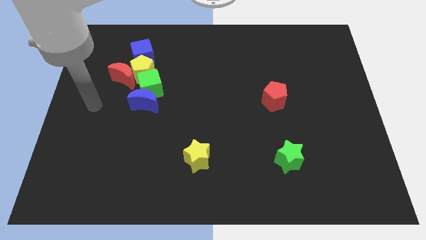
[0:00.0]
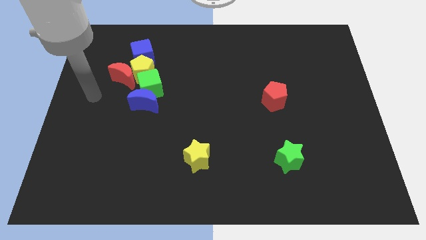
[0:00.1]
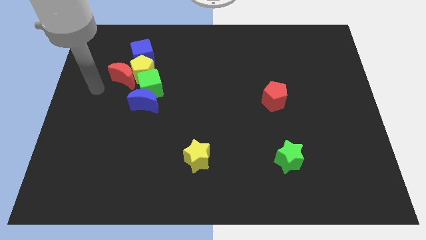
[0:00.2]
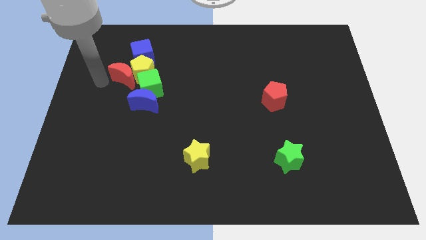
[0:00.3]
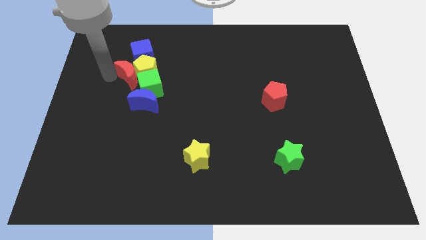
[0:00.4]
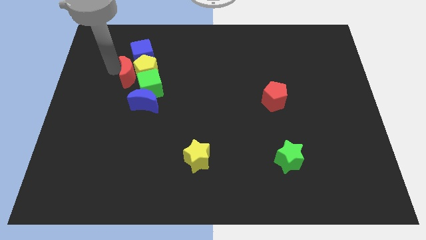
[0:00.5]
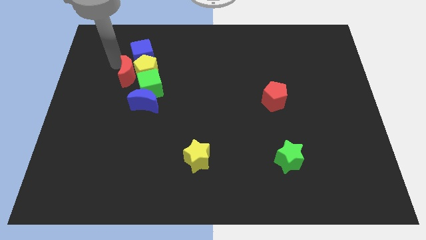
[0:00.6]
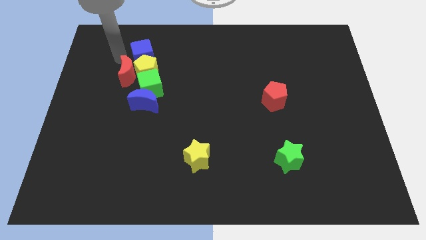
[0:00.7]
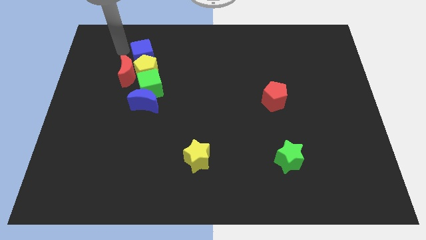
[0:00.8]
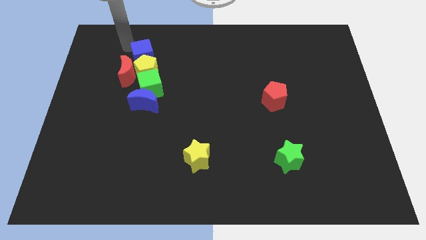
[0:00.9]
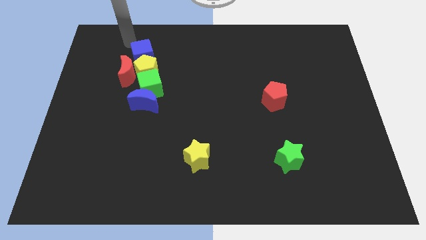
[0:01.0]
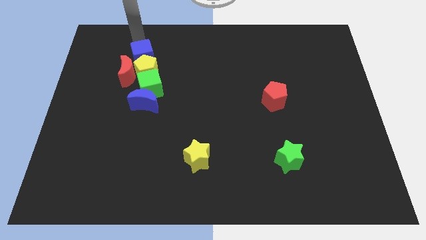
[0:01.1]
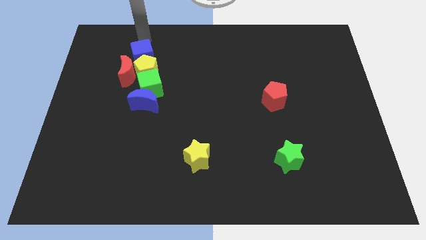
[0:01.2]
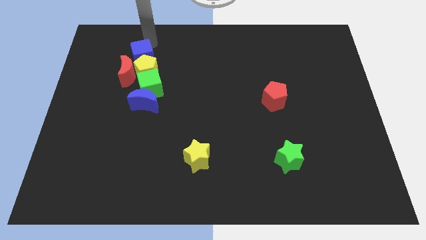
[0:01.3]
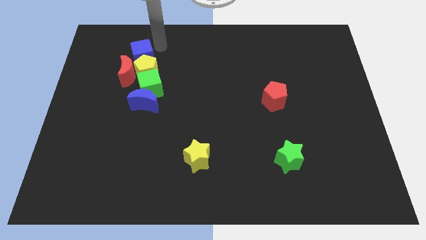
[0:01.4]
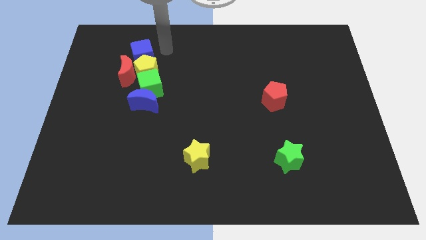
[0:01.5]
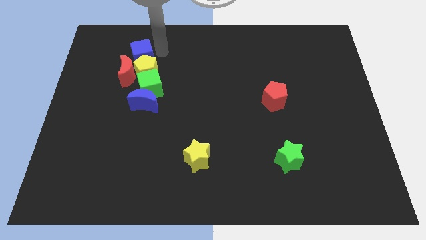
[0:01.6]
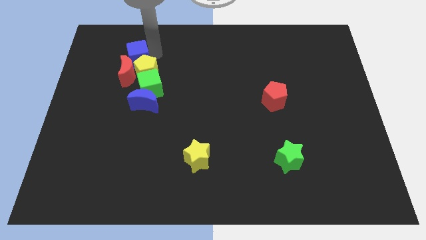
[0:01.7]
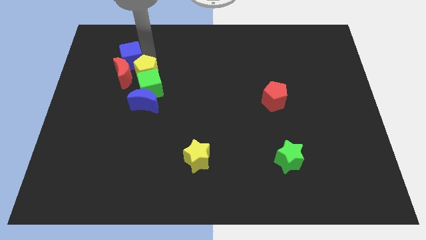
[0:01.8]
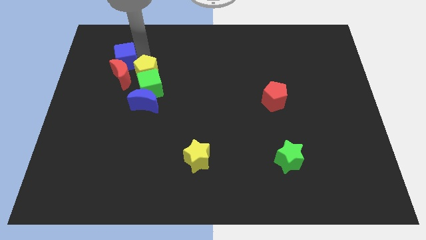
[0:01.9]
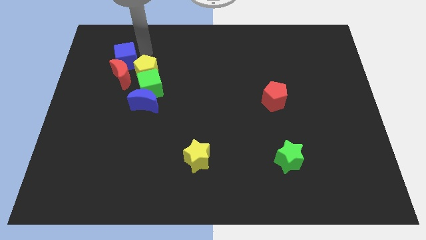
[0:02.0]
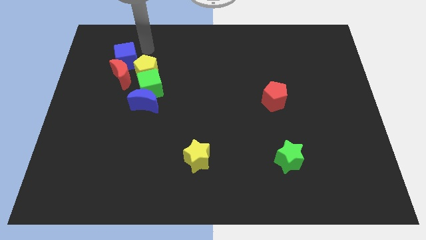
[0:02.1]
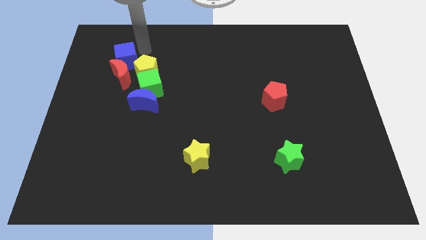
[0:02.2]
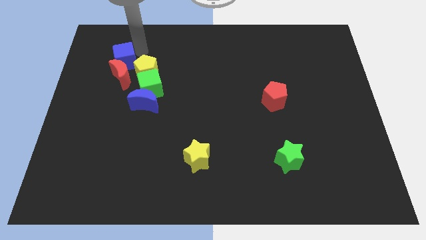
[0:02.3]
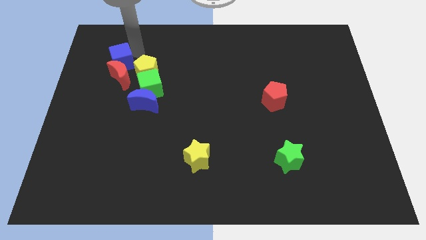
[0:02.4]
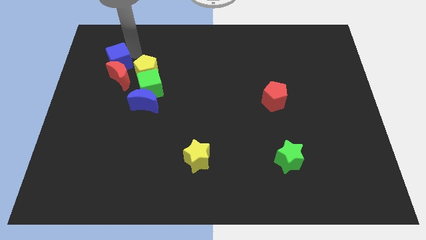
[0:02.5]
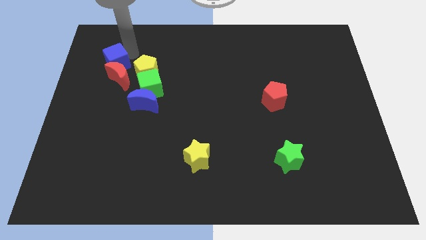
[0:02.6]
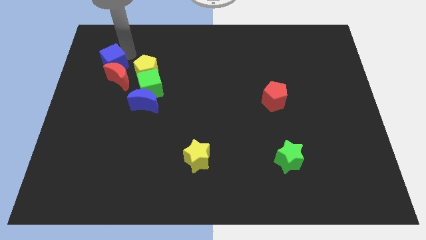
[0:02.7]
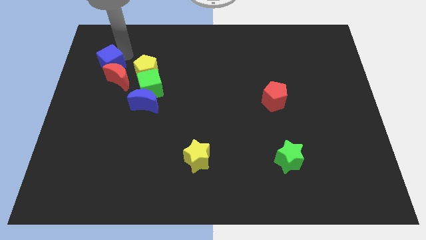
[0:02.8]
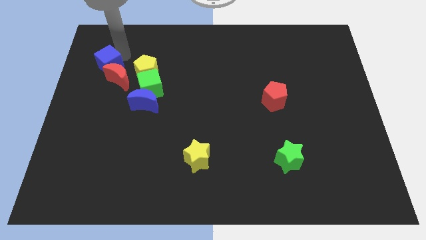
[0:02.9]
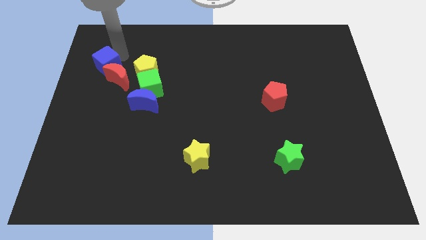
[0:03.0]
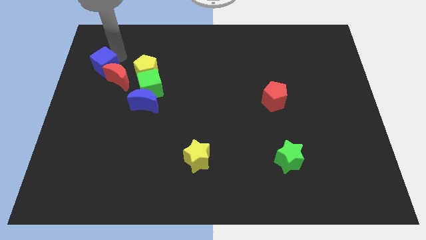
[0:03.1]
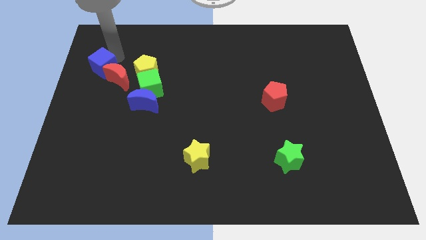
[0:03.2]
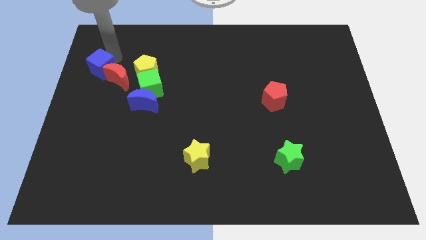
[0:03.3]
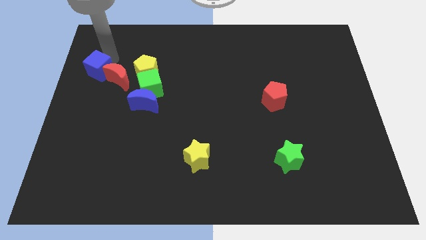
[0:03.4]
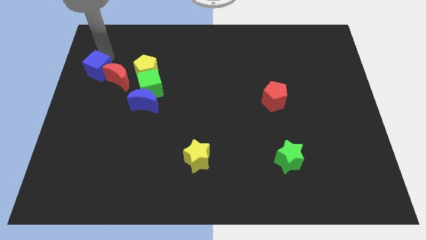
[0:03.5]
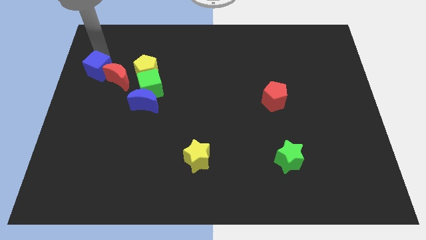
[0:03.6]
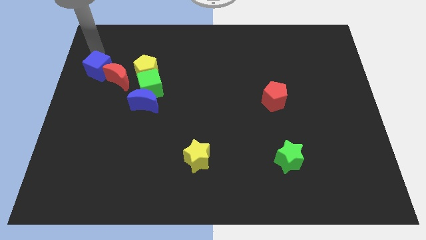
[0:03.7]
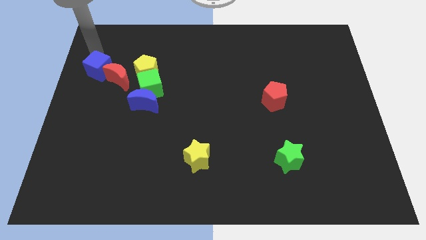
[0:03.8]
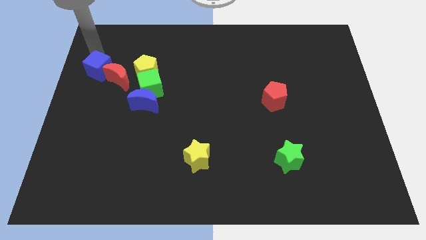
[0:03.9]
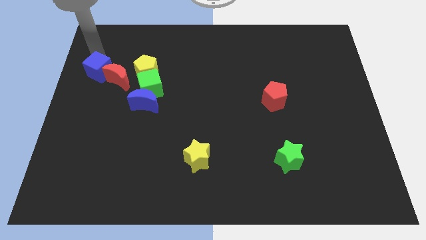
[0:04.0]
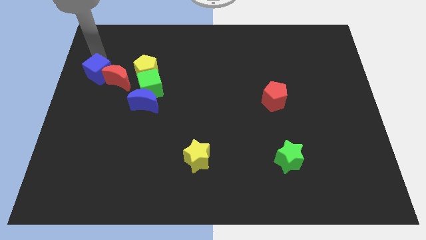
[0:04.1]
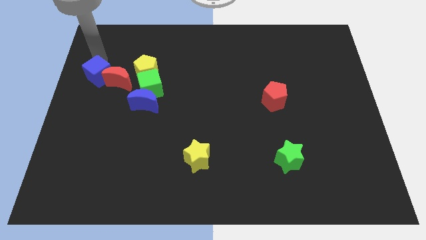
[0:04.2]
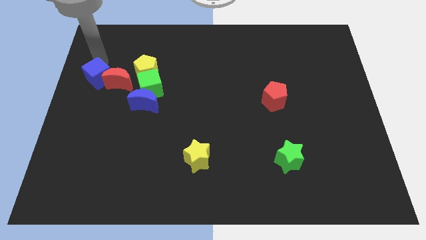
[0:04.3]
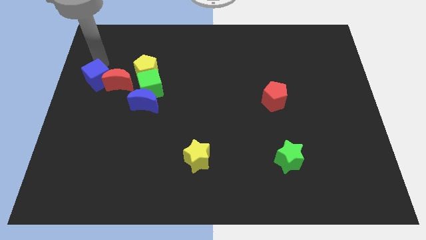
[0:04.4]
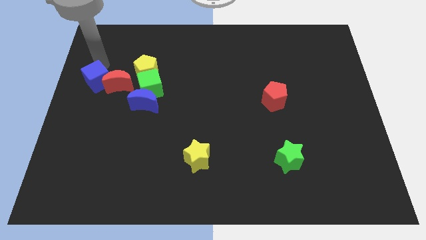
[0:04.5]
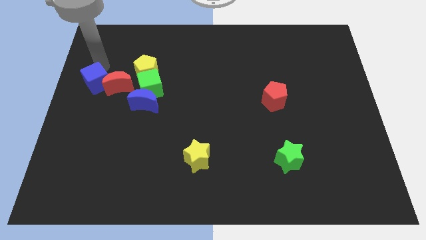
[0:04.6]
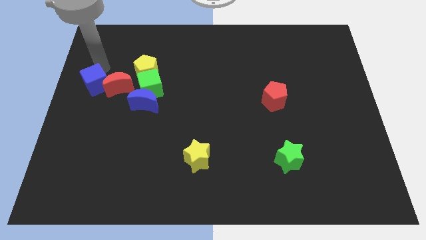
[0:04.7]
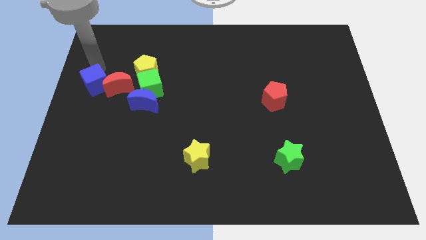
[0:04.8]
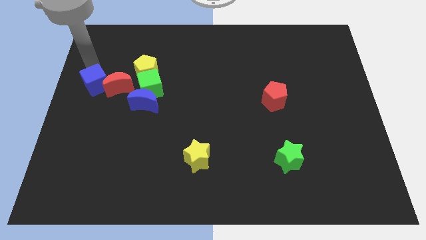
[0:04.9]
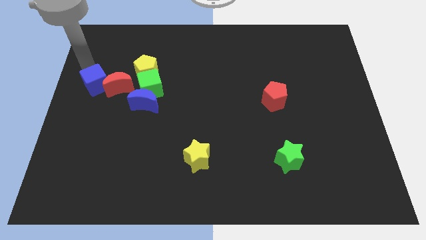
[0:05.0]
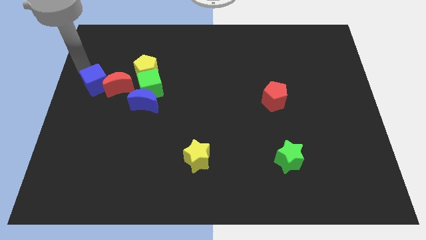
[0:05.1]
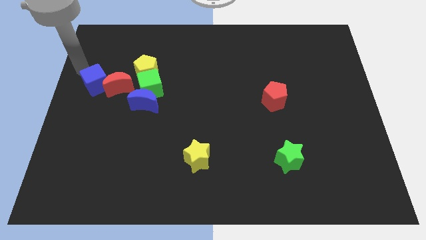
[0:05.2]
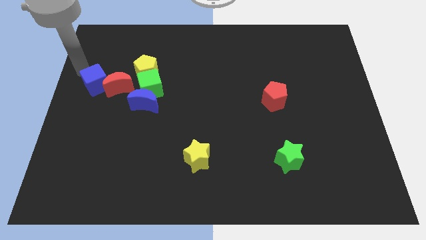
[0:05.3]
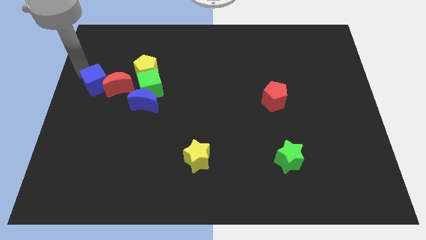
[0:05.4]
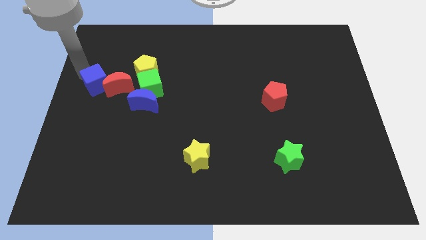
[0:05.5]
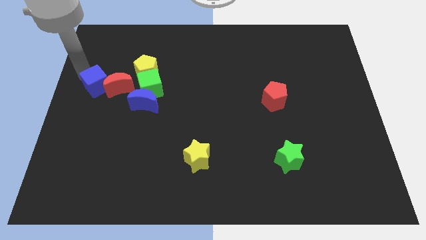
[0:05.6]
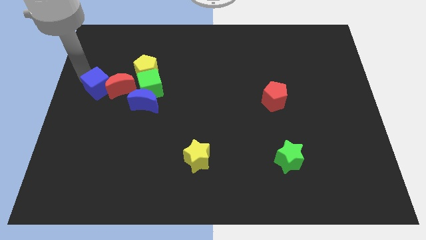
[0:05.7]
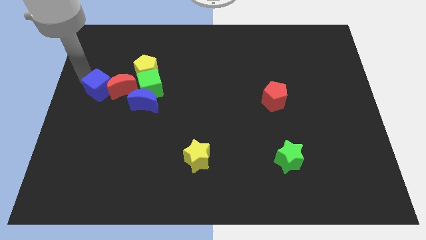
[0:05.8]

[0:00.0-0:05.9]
slightly slide the blue cube downwards

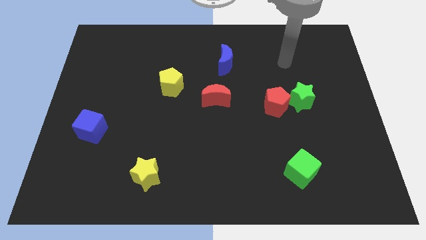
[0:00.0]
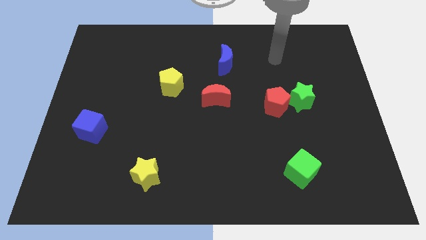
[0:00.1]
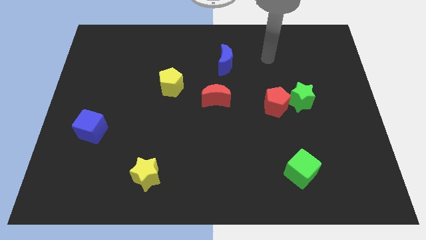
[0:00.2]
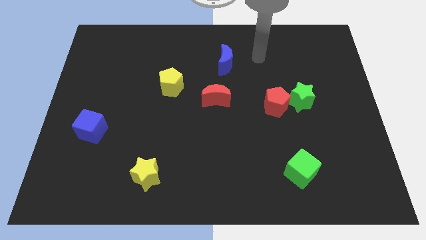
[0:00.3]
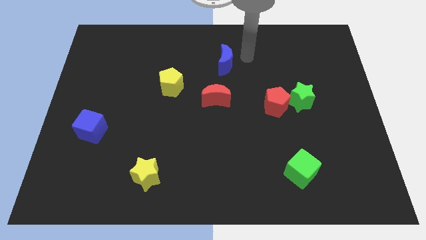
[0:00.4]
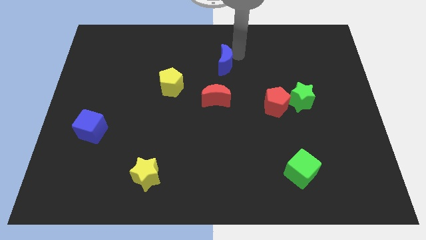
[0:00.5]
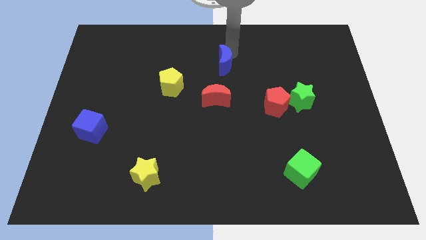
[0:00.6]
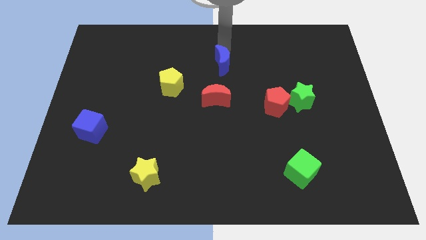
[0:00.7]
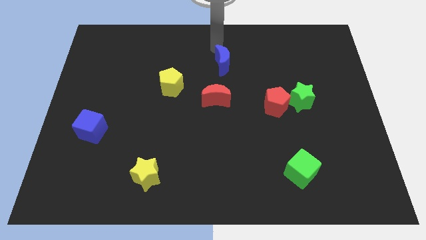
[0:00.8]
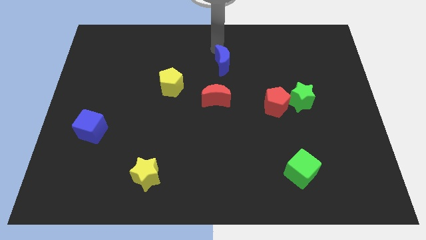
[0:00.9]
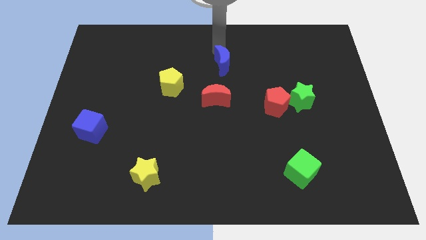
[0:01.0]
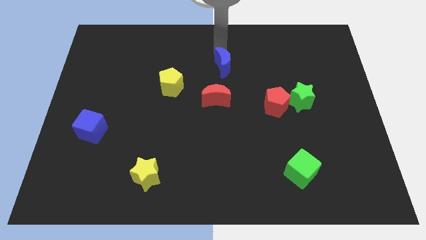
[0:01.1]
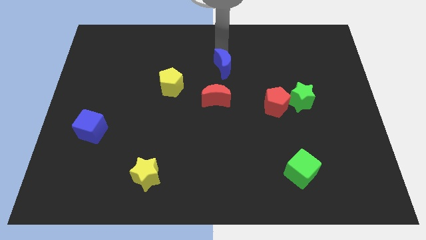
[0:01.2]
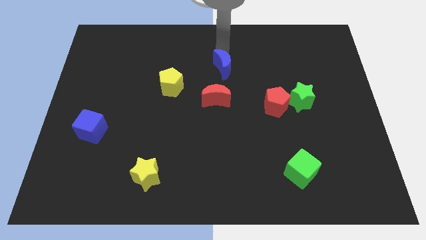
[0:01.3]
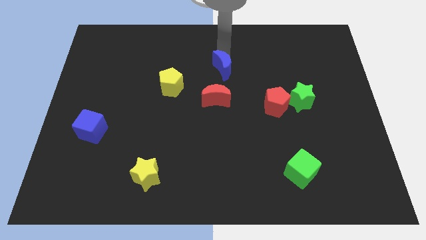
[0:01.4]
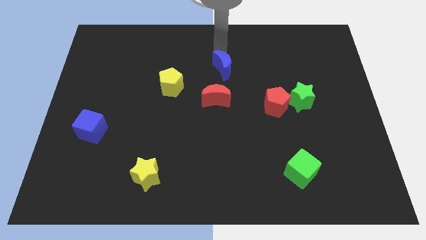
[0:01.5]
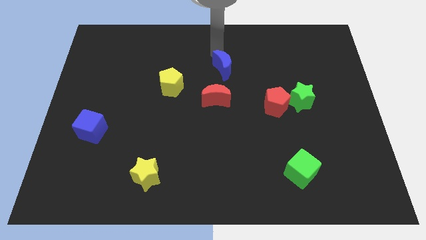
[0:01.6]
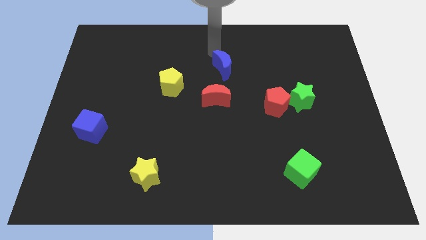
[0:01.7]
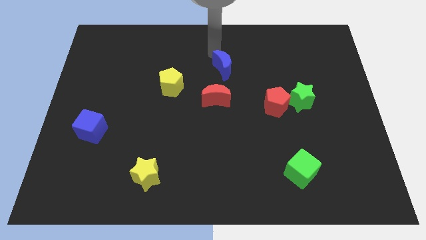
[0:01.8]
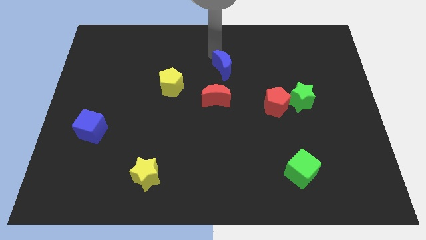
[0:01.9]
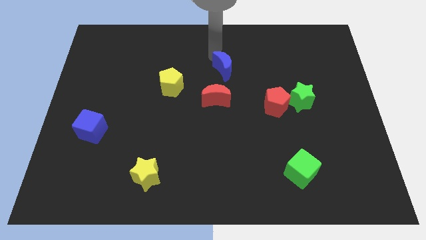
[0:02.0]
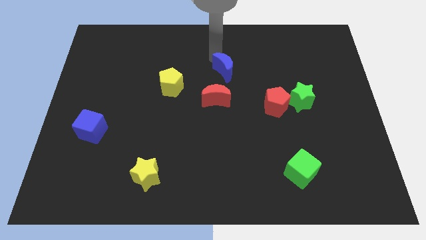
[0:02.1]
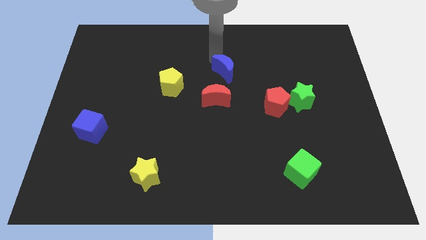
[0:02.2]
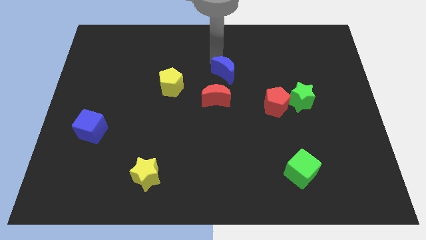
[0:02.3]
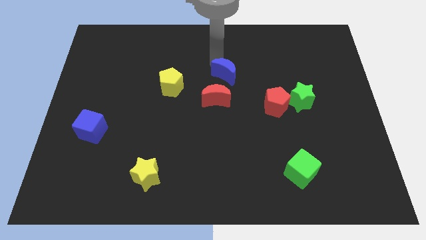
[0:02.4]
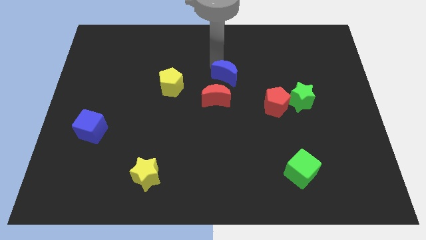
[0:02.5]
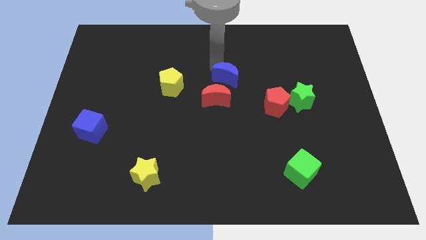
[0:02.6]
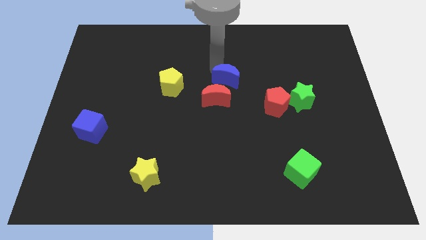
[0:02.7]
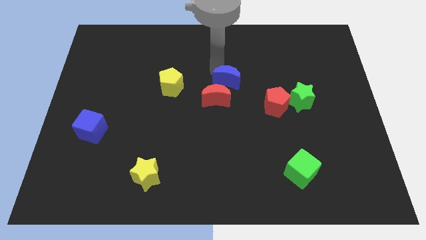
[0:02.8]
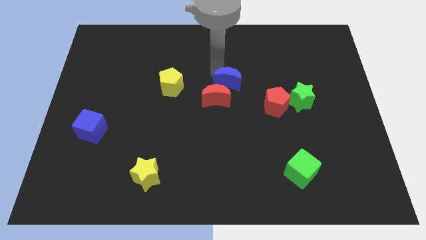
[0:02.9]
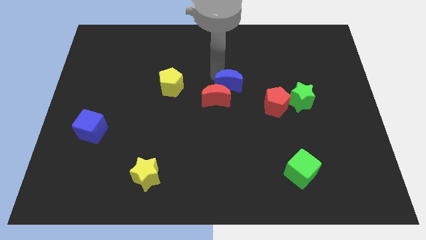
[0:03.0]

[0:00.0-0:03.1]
slide the blue moon a bit down
